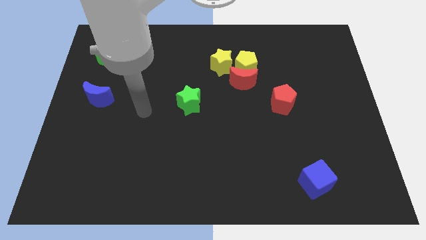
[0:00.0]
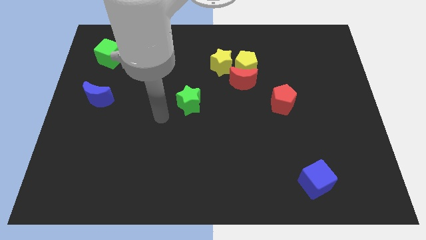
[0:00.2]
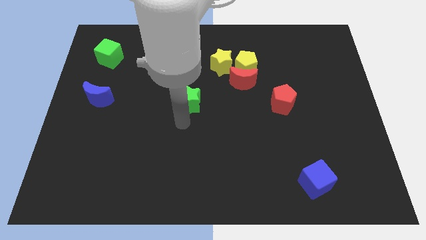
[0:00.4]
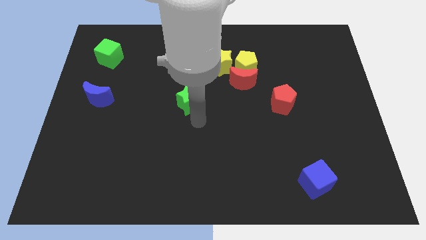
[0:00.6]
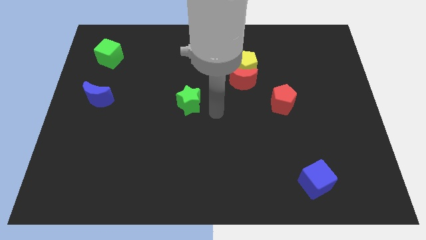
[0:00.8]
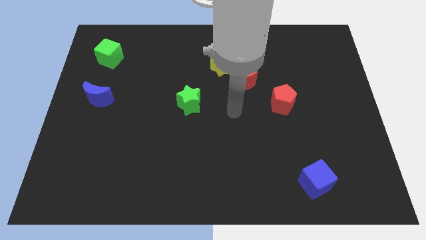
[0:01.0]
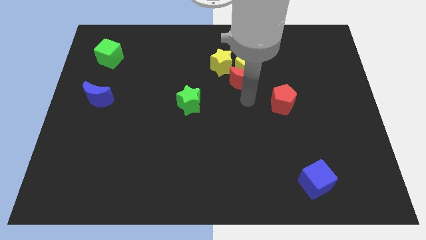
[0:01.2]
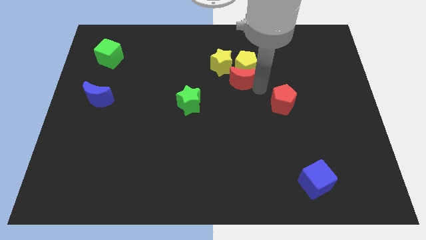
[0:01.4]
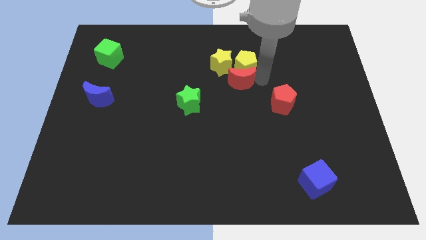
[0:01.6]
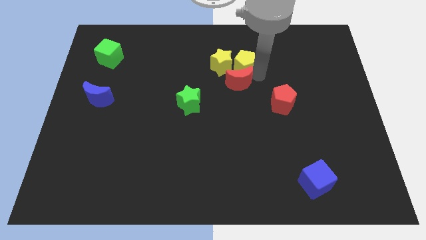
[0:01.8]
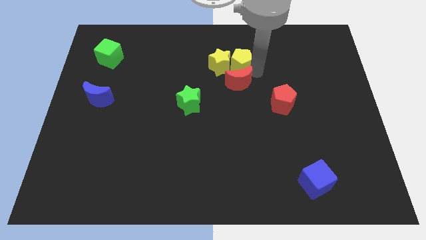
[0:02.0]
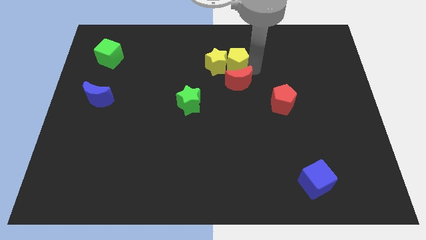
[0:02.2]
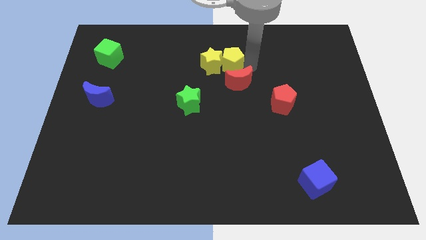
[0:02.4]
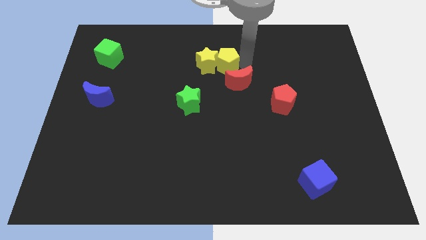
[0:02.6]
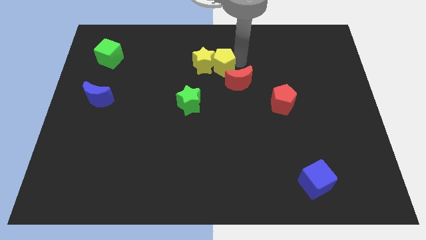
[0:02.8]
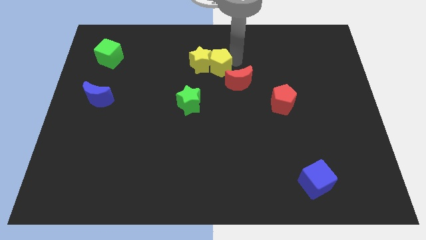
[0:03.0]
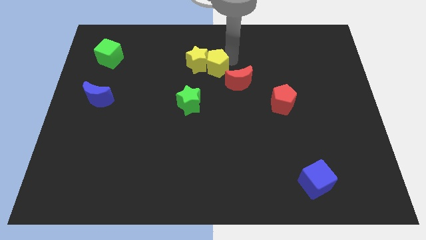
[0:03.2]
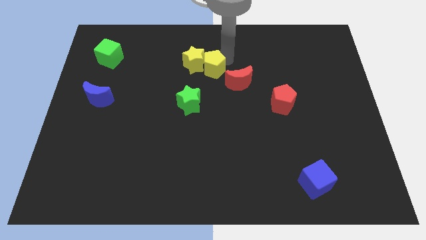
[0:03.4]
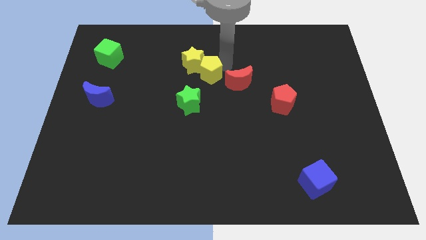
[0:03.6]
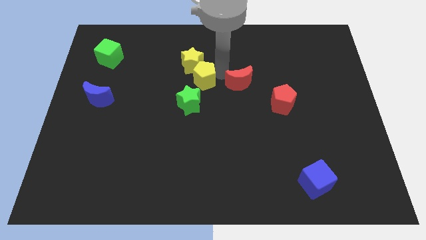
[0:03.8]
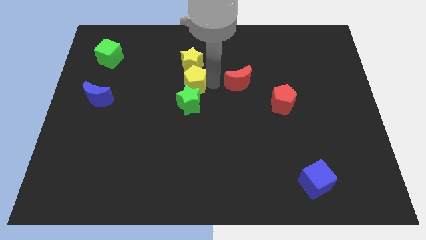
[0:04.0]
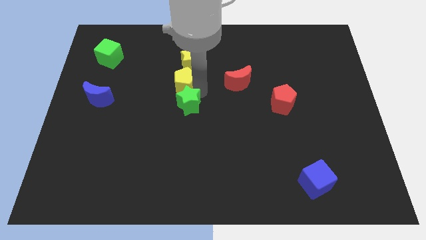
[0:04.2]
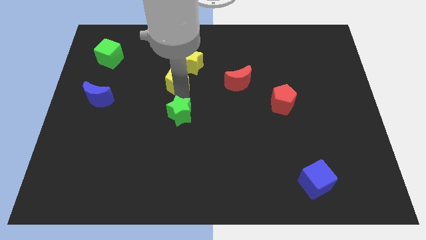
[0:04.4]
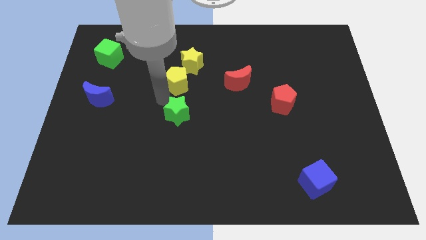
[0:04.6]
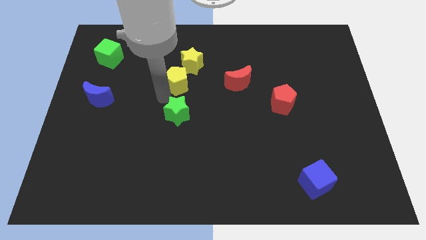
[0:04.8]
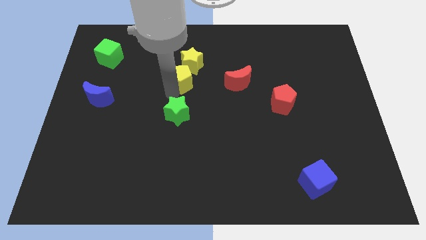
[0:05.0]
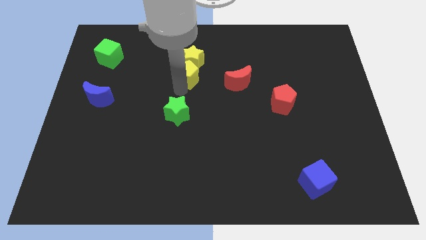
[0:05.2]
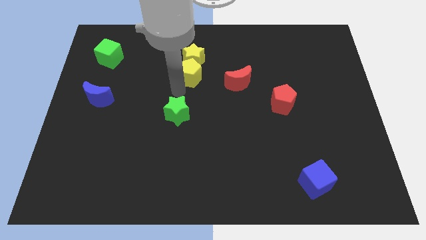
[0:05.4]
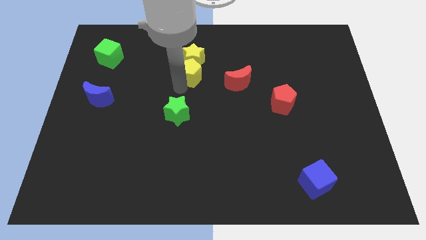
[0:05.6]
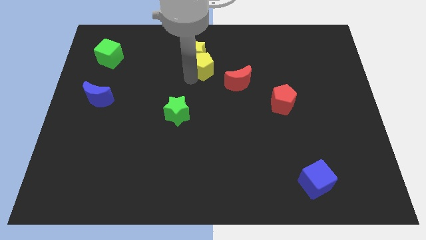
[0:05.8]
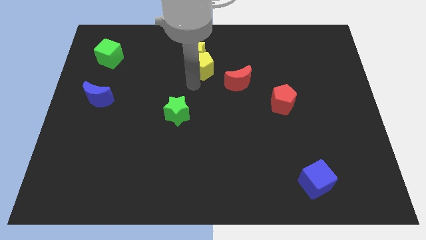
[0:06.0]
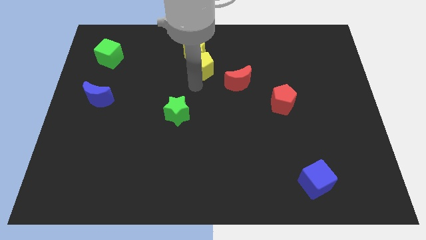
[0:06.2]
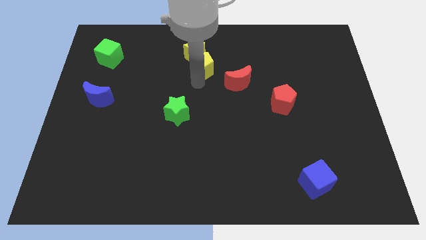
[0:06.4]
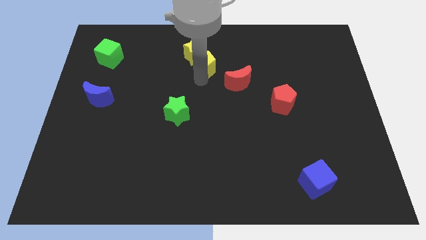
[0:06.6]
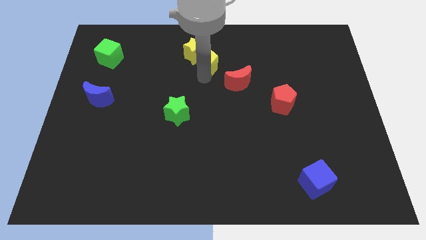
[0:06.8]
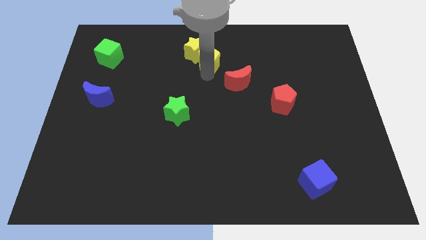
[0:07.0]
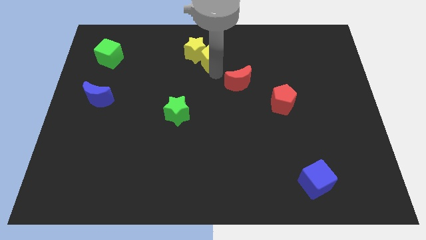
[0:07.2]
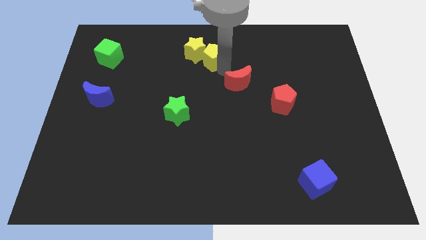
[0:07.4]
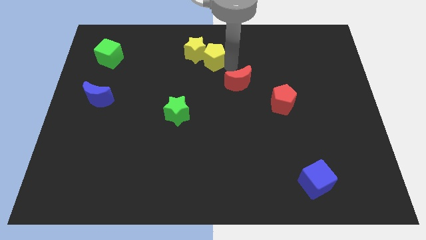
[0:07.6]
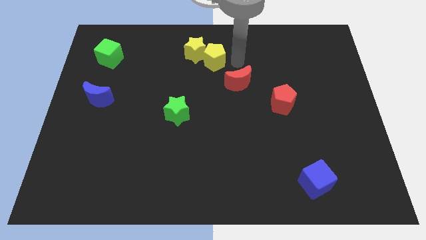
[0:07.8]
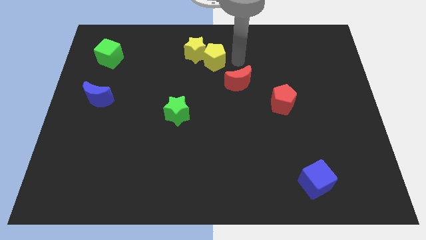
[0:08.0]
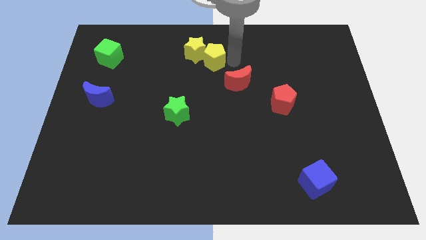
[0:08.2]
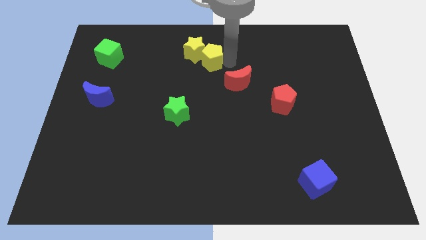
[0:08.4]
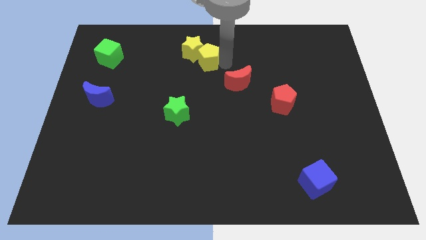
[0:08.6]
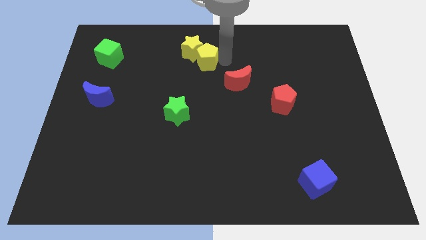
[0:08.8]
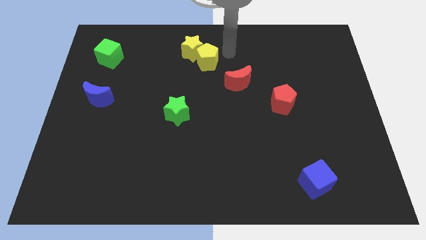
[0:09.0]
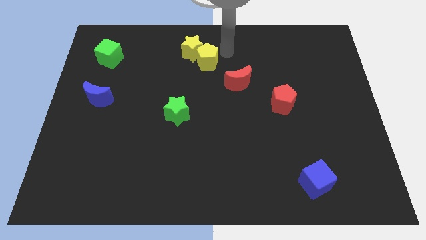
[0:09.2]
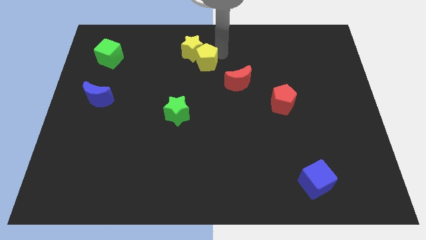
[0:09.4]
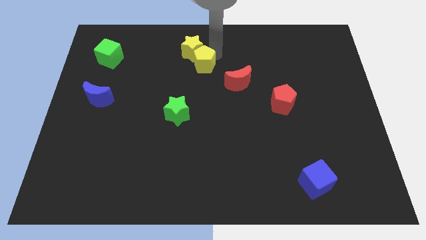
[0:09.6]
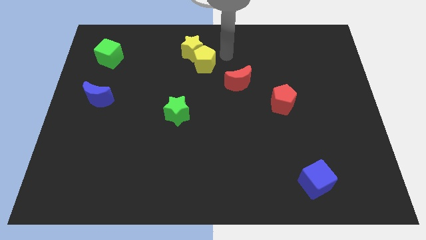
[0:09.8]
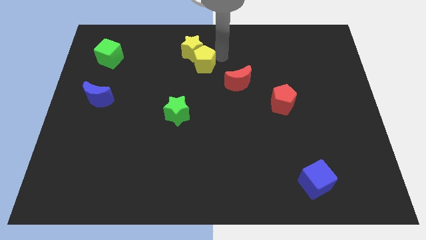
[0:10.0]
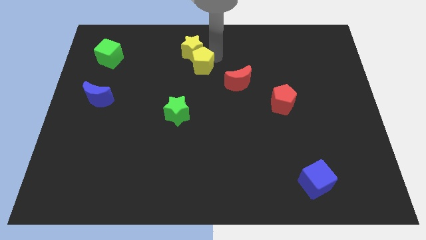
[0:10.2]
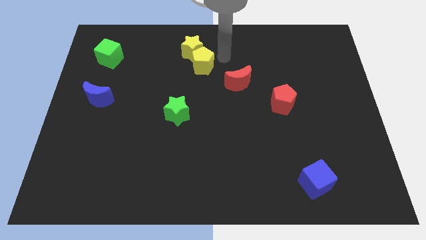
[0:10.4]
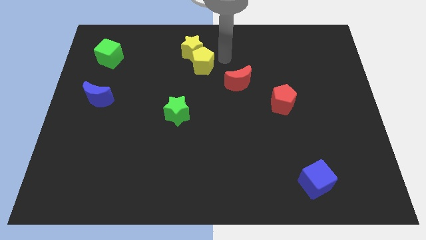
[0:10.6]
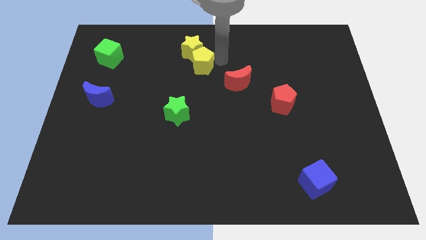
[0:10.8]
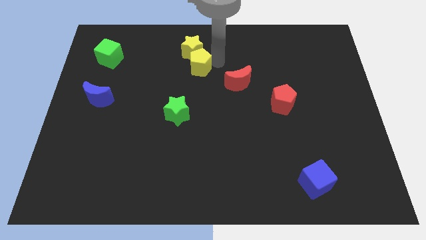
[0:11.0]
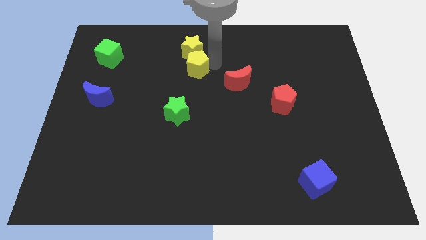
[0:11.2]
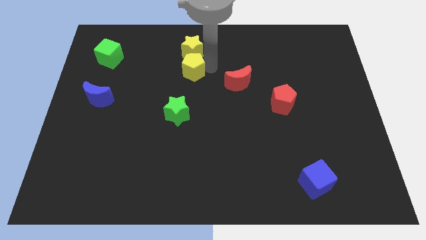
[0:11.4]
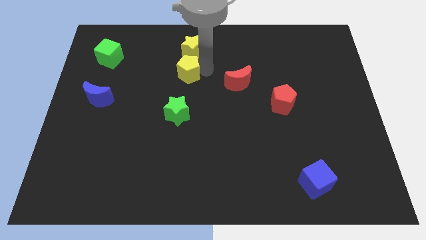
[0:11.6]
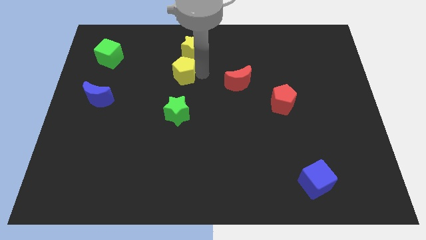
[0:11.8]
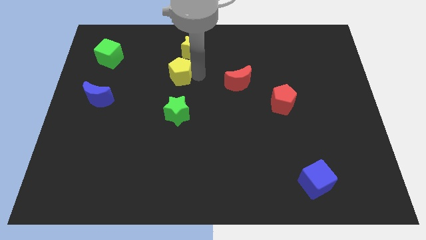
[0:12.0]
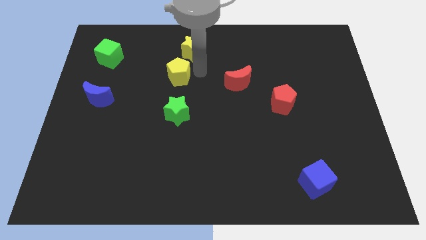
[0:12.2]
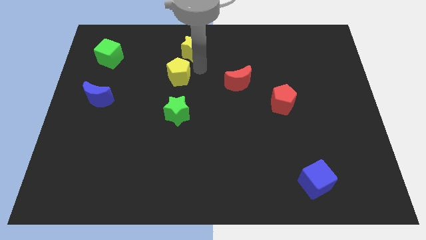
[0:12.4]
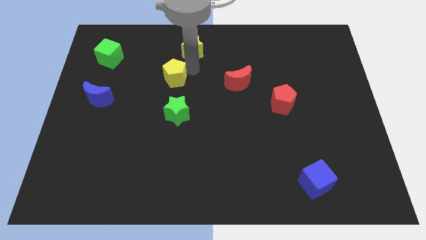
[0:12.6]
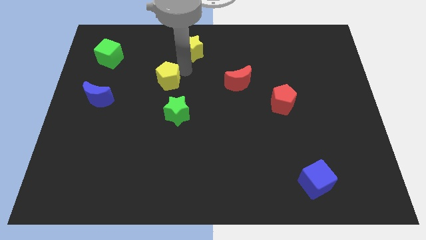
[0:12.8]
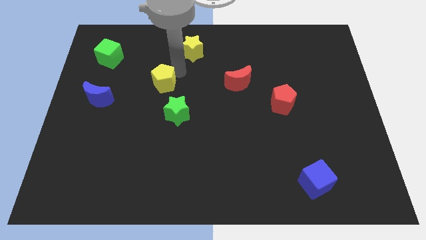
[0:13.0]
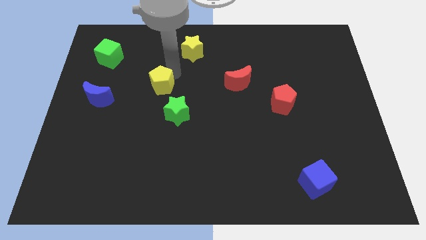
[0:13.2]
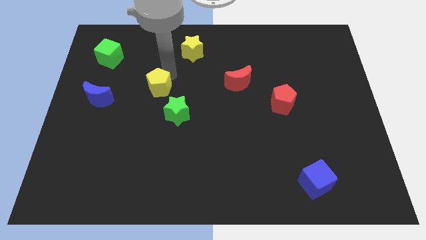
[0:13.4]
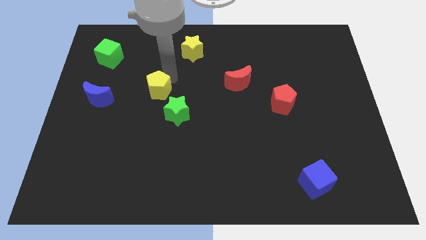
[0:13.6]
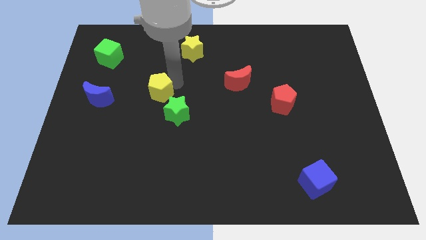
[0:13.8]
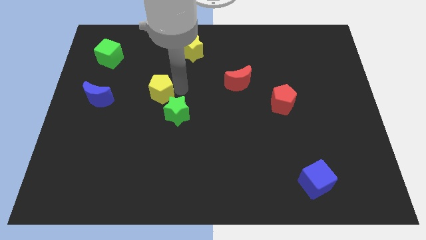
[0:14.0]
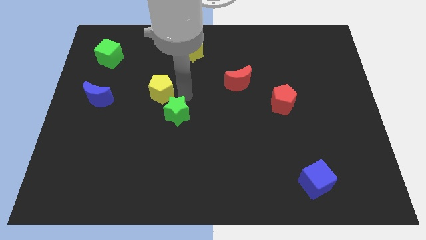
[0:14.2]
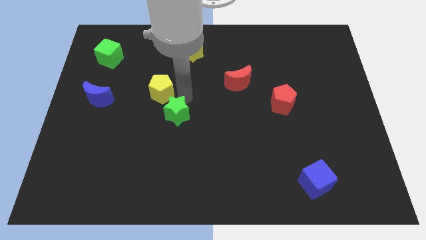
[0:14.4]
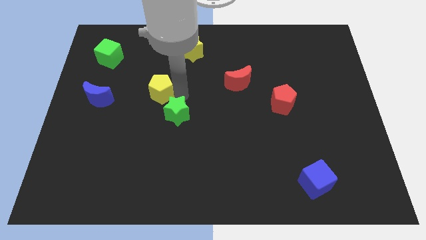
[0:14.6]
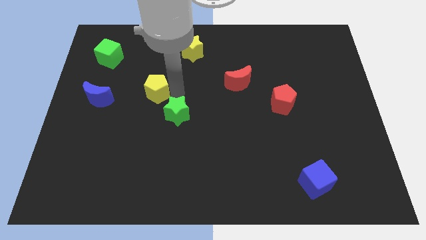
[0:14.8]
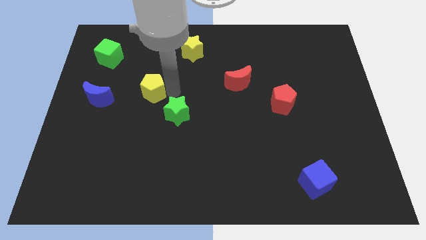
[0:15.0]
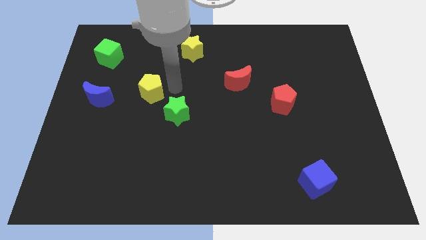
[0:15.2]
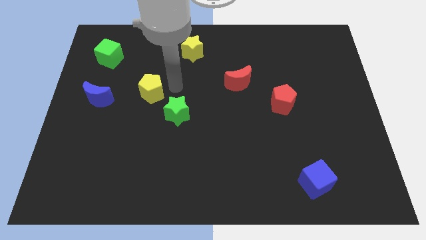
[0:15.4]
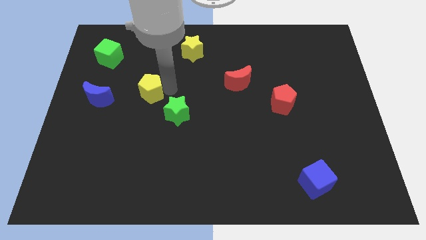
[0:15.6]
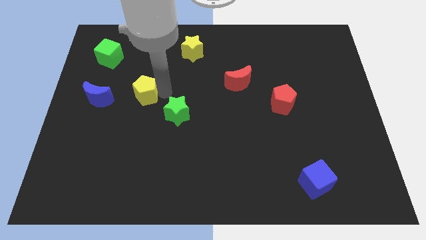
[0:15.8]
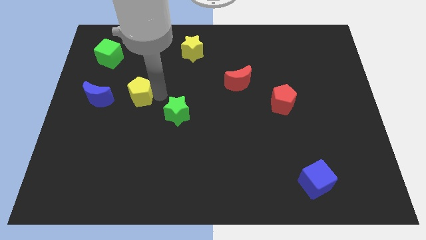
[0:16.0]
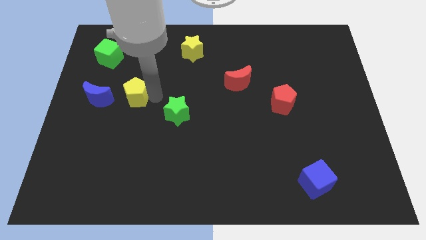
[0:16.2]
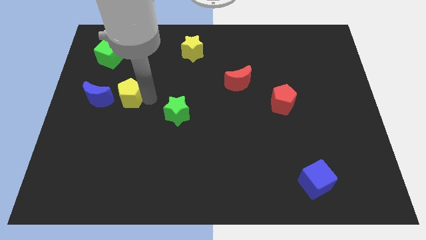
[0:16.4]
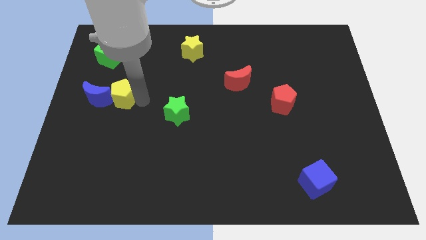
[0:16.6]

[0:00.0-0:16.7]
move the yellow pentagon to the blue moon
